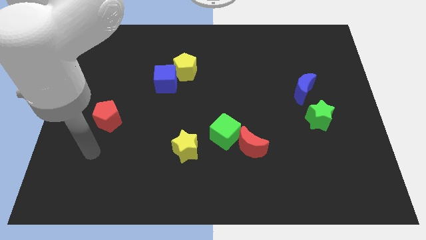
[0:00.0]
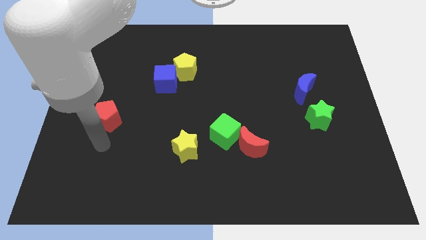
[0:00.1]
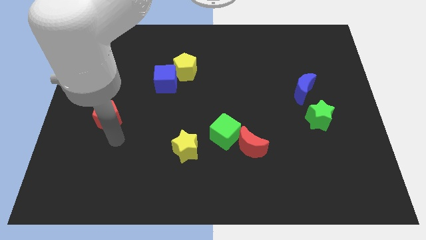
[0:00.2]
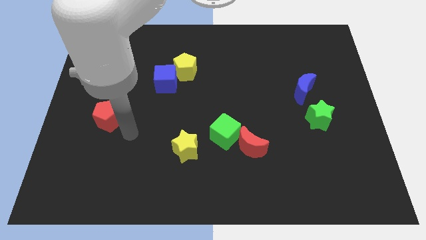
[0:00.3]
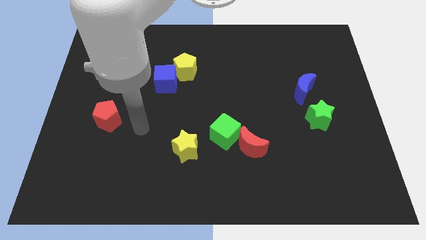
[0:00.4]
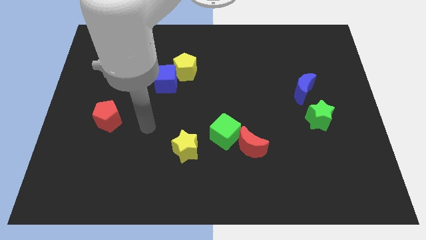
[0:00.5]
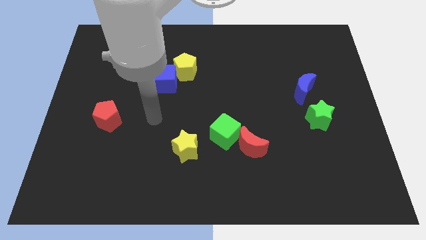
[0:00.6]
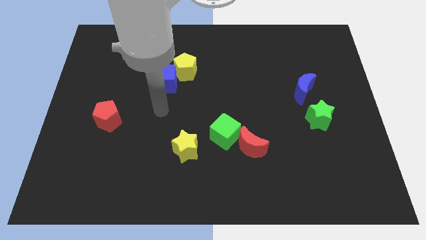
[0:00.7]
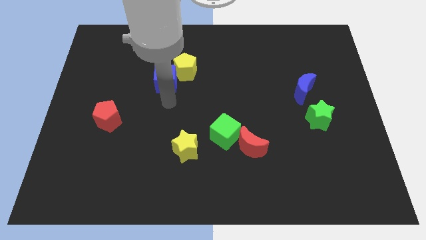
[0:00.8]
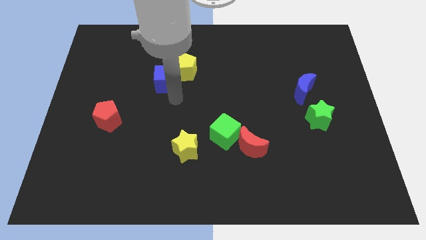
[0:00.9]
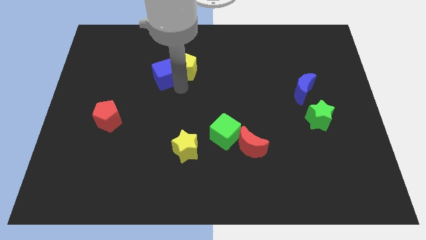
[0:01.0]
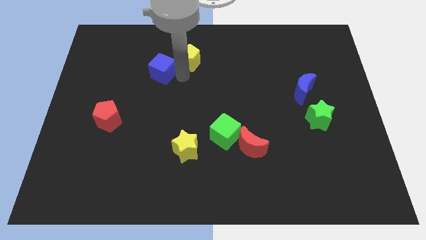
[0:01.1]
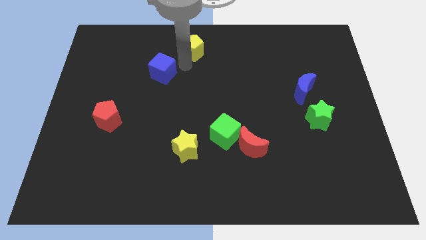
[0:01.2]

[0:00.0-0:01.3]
separate the blue cube from the yellow pentagon

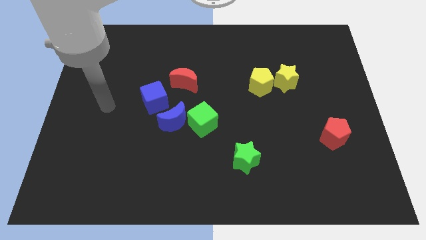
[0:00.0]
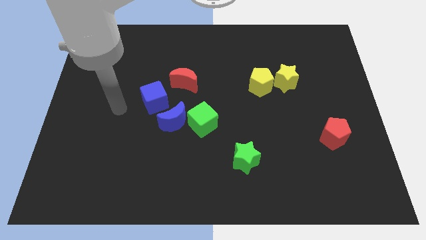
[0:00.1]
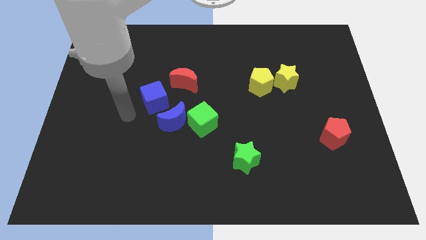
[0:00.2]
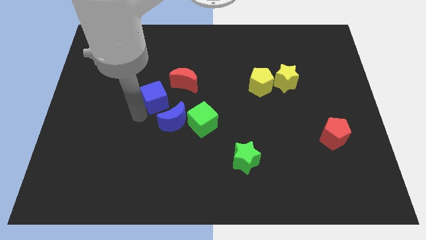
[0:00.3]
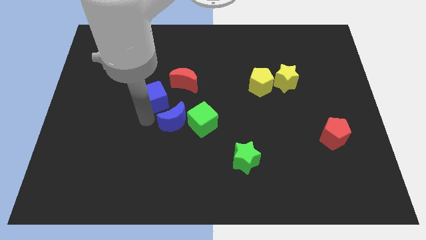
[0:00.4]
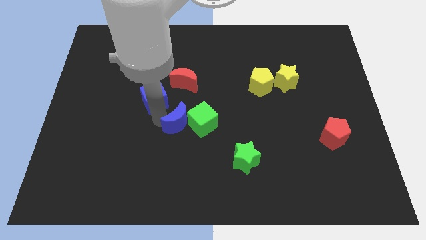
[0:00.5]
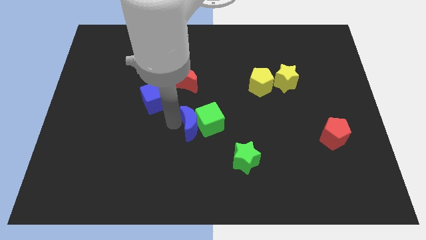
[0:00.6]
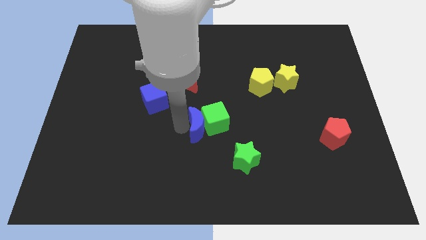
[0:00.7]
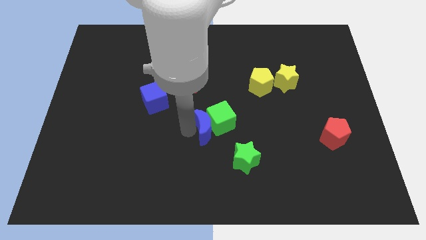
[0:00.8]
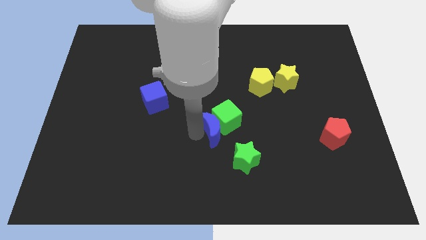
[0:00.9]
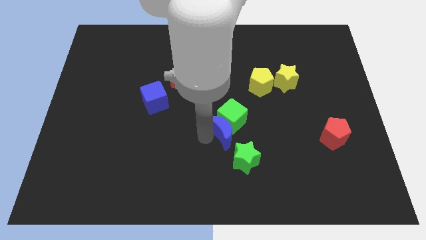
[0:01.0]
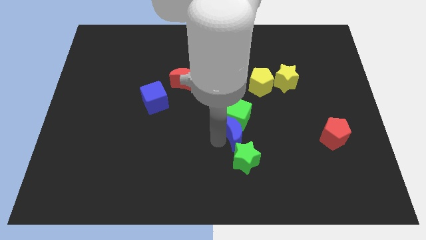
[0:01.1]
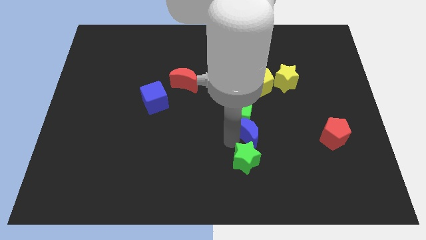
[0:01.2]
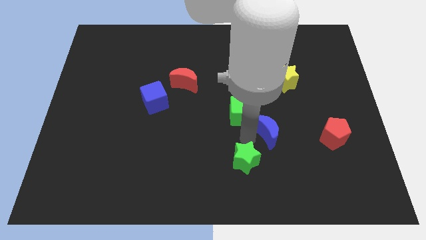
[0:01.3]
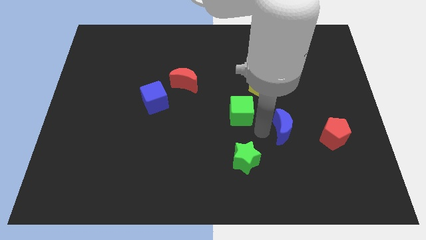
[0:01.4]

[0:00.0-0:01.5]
pull the green cube apart from the blue moon

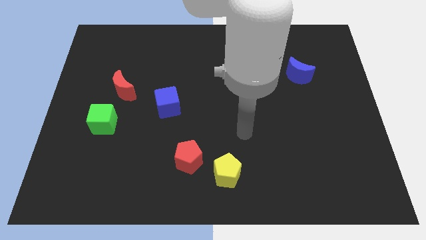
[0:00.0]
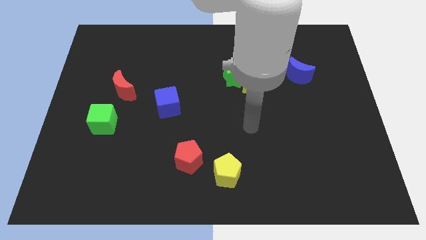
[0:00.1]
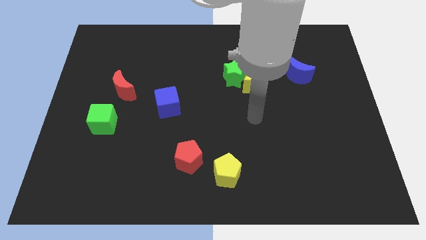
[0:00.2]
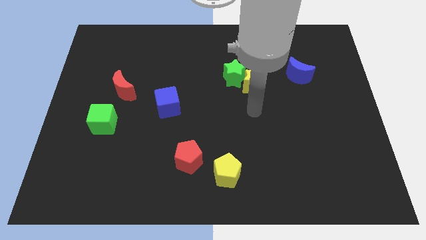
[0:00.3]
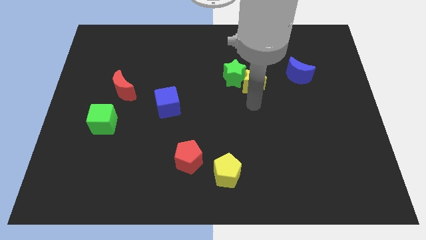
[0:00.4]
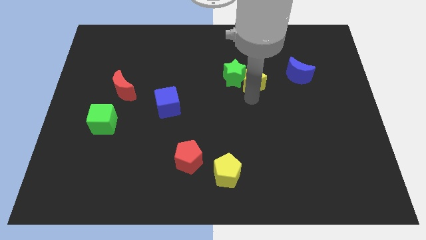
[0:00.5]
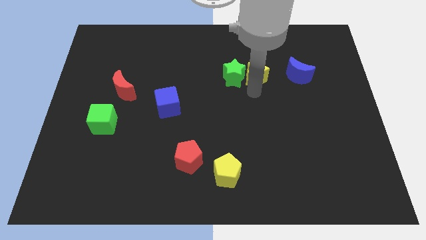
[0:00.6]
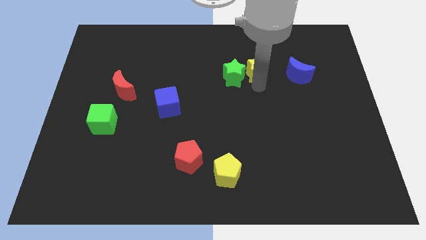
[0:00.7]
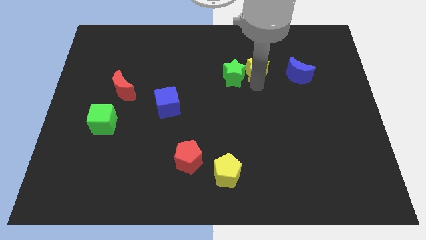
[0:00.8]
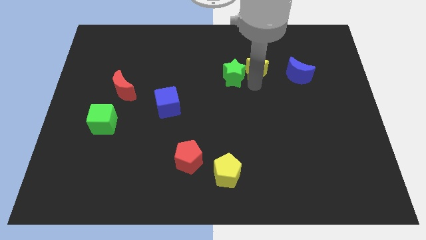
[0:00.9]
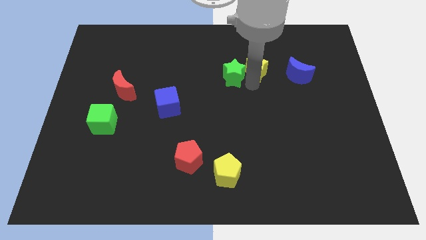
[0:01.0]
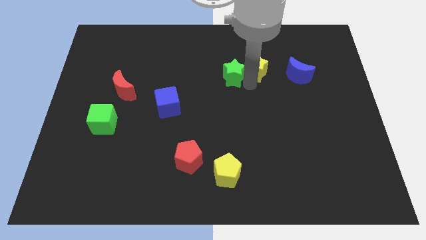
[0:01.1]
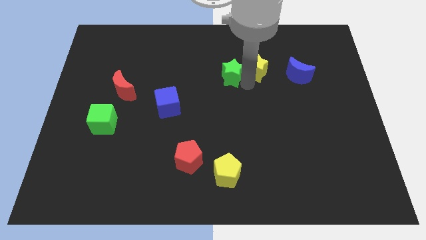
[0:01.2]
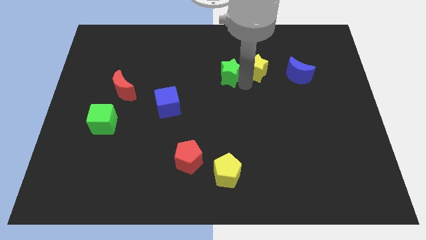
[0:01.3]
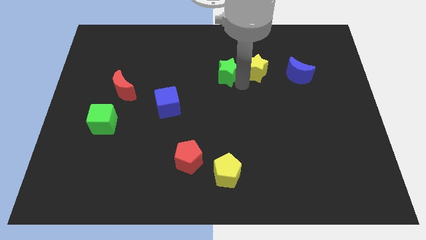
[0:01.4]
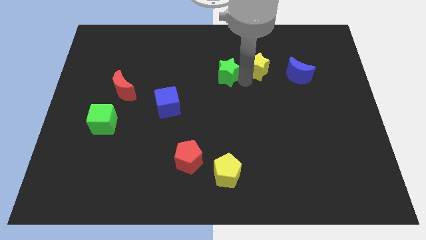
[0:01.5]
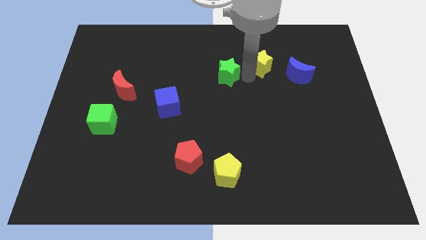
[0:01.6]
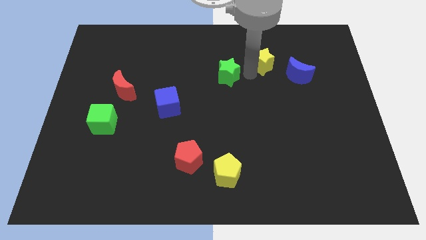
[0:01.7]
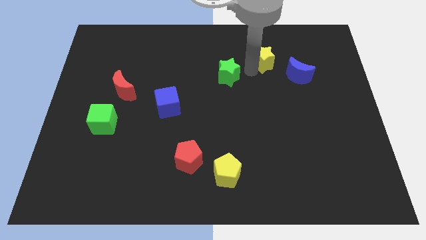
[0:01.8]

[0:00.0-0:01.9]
move the green star away from the yellow star

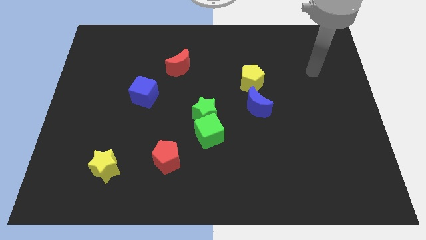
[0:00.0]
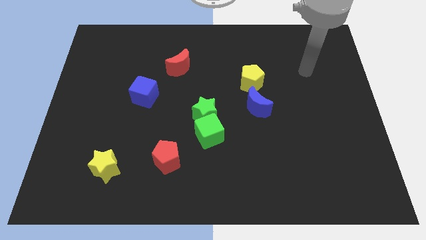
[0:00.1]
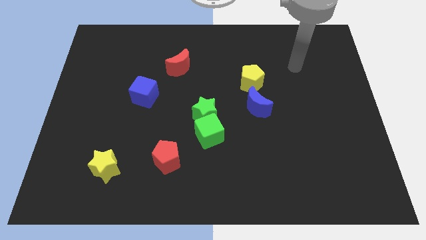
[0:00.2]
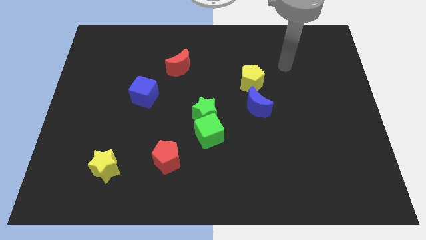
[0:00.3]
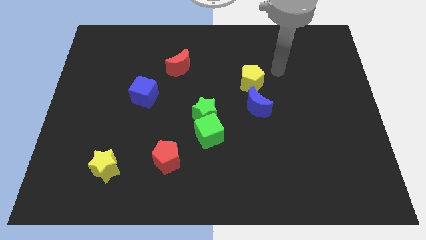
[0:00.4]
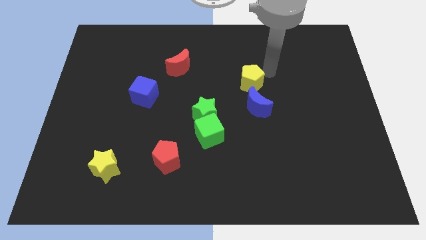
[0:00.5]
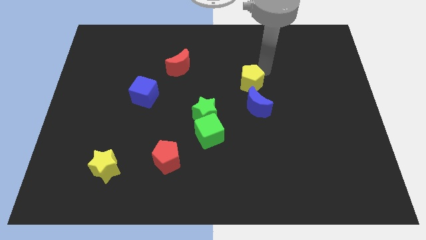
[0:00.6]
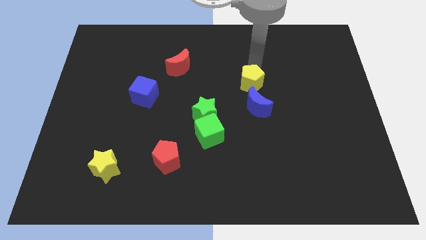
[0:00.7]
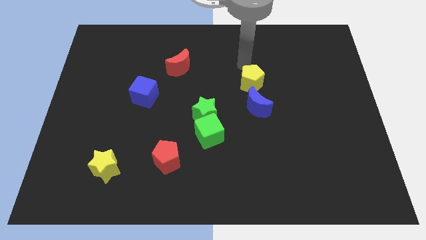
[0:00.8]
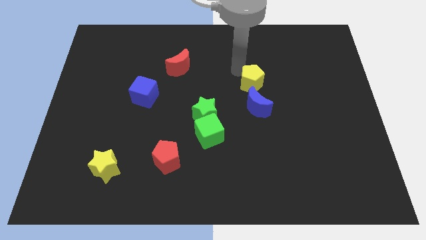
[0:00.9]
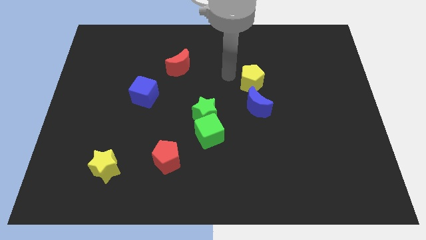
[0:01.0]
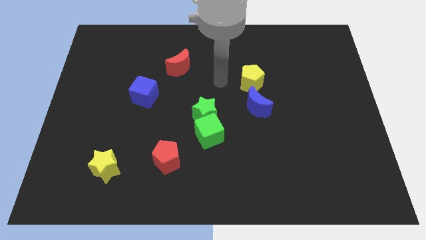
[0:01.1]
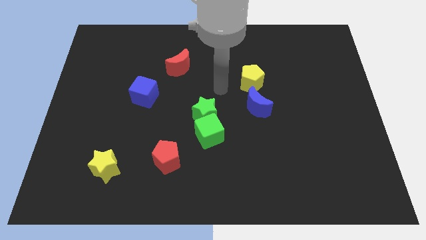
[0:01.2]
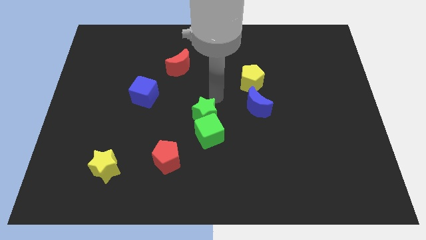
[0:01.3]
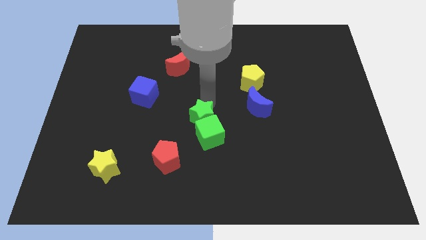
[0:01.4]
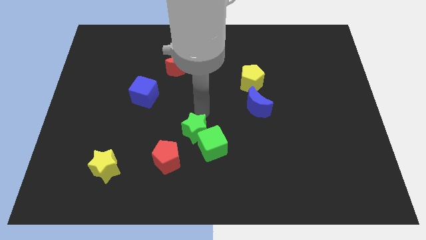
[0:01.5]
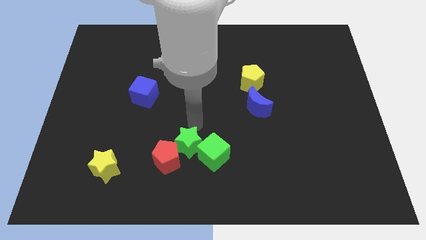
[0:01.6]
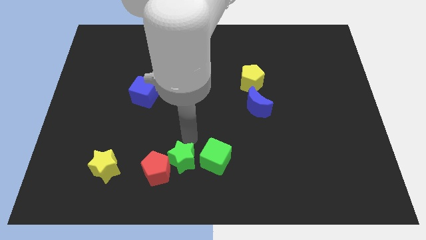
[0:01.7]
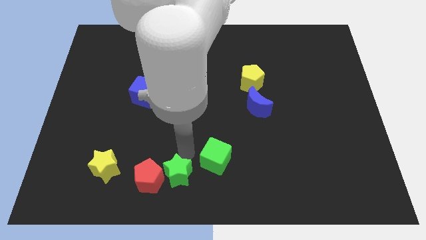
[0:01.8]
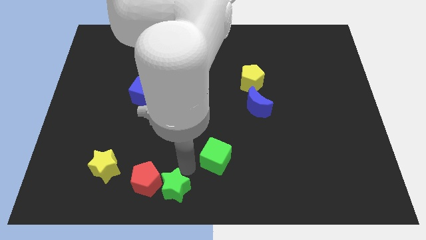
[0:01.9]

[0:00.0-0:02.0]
separate the green cube from the green star

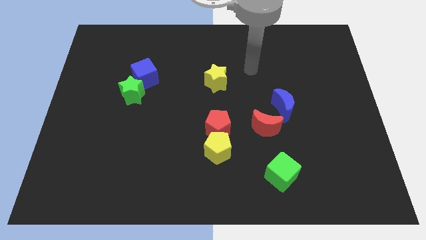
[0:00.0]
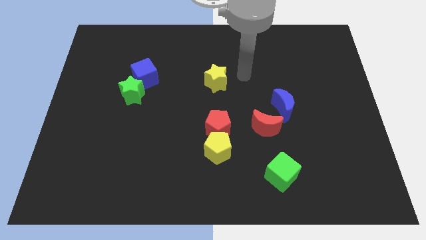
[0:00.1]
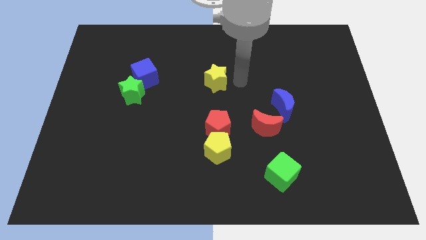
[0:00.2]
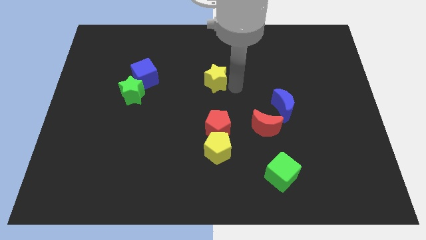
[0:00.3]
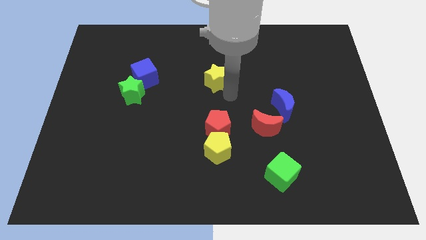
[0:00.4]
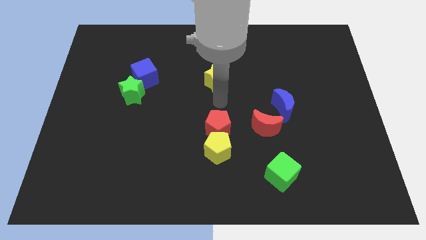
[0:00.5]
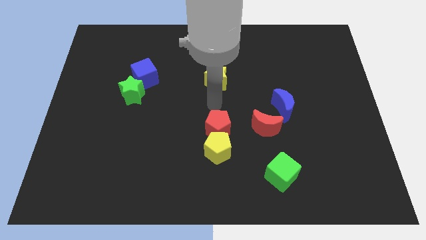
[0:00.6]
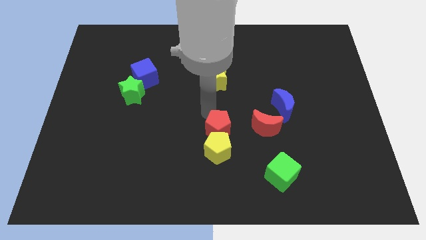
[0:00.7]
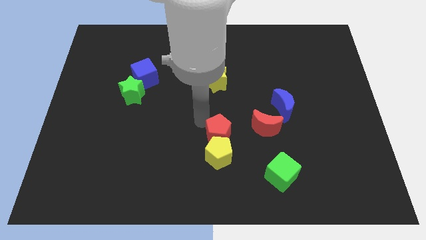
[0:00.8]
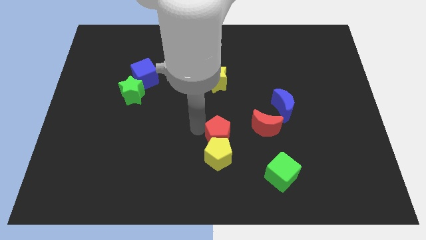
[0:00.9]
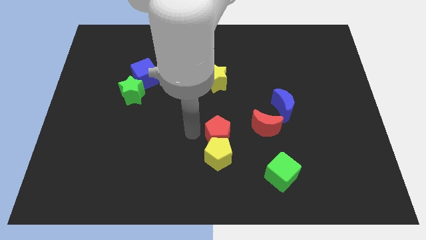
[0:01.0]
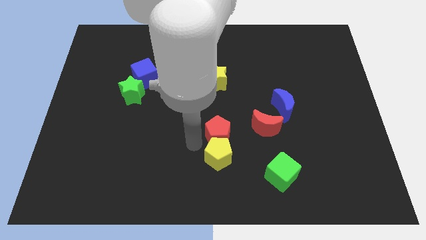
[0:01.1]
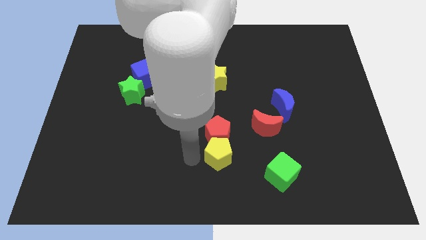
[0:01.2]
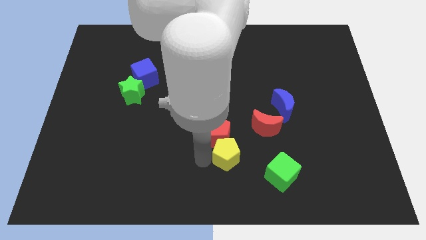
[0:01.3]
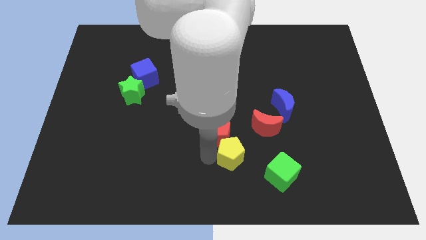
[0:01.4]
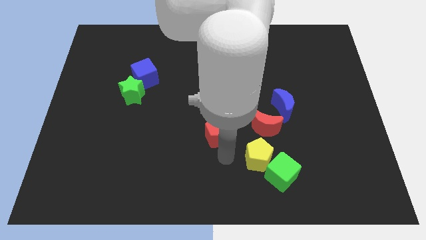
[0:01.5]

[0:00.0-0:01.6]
move the red pentagon away from the yellow pentagon

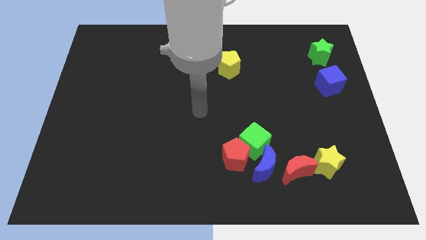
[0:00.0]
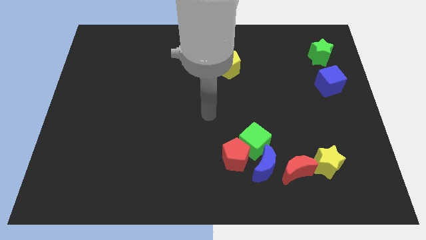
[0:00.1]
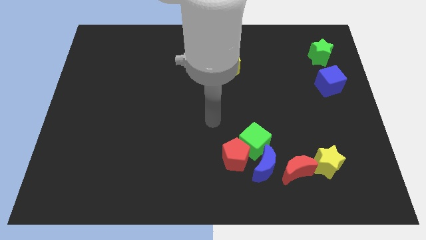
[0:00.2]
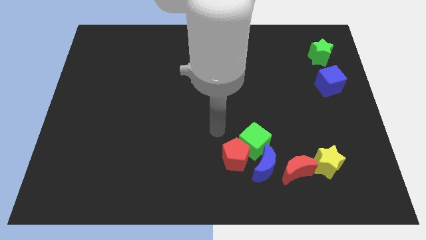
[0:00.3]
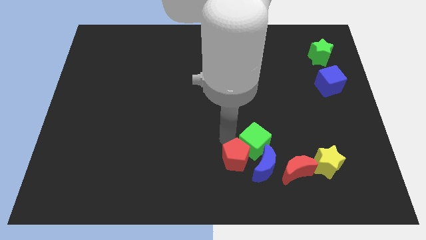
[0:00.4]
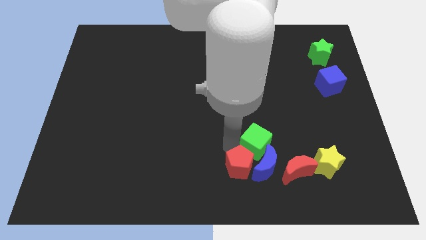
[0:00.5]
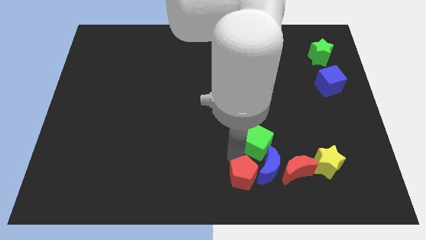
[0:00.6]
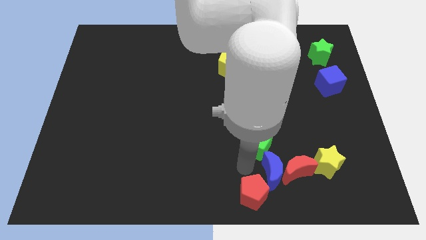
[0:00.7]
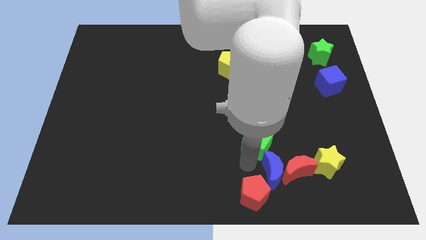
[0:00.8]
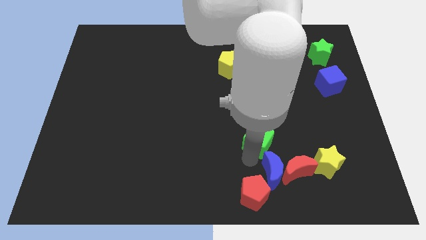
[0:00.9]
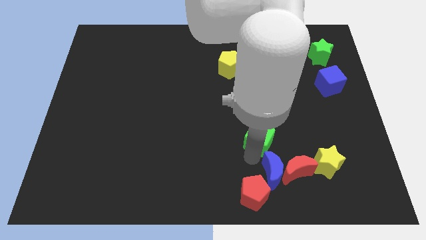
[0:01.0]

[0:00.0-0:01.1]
pull the green cube apart from the red pentagon and blue moon
